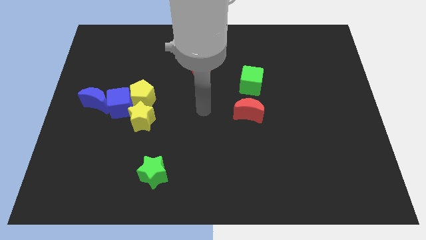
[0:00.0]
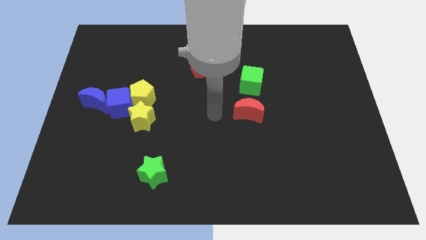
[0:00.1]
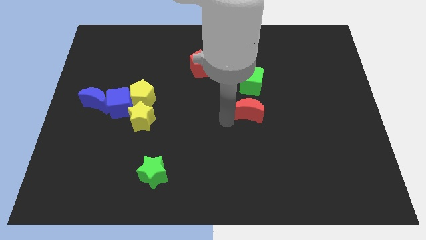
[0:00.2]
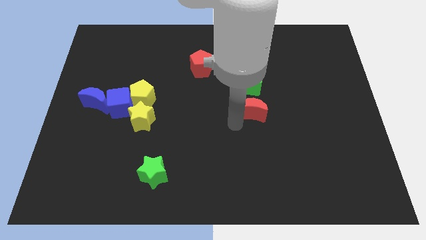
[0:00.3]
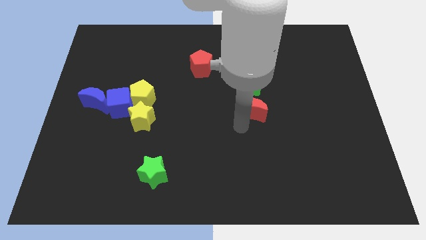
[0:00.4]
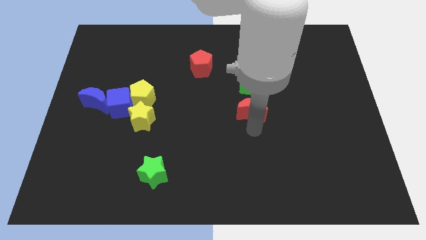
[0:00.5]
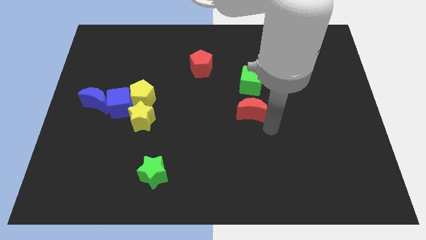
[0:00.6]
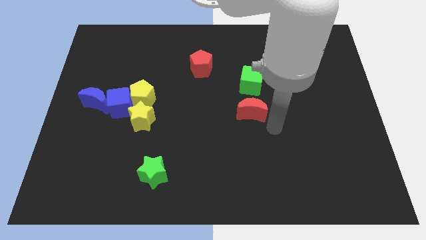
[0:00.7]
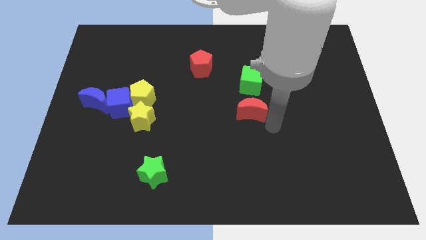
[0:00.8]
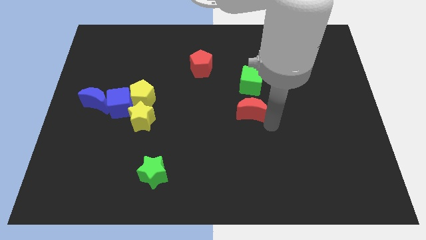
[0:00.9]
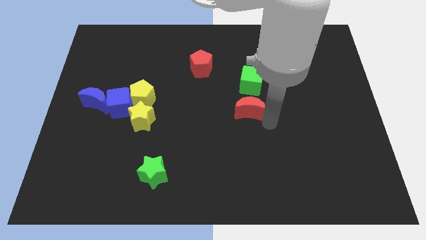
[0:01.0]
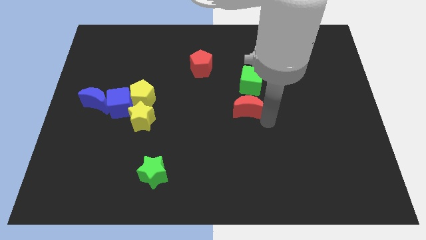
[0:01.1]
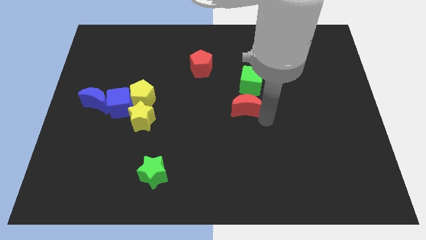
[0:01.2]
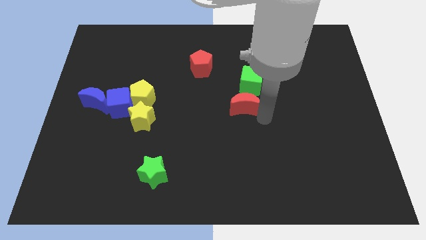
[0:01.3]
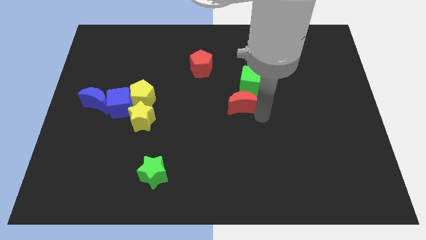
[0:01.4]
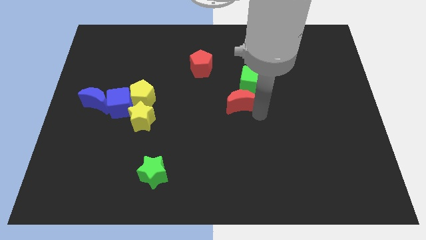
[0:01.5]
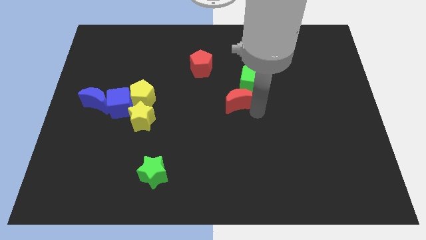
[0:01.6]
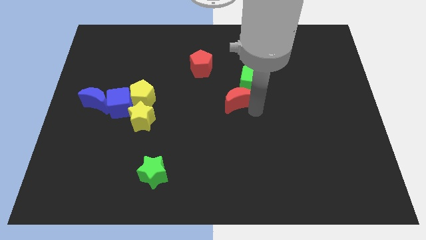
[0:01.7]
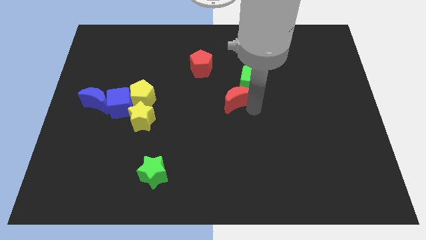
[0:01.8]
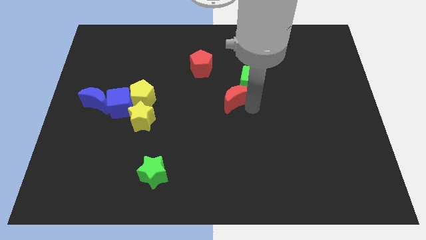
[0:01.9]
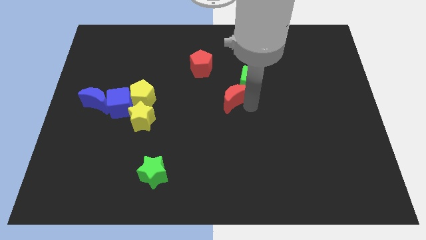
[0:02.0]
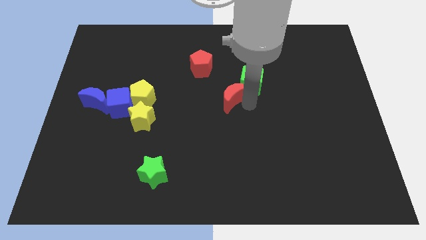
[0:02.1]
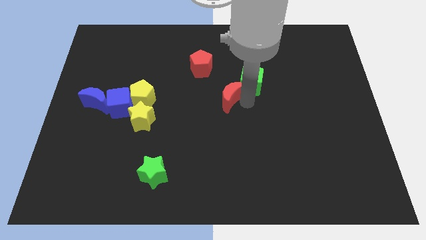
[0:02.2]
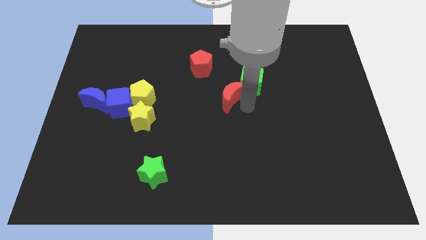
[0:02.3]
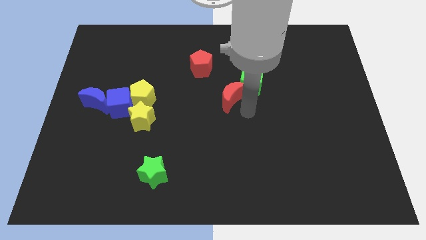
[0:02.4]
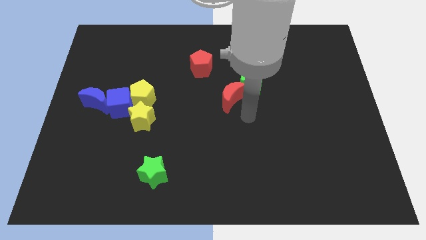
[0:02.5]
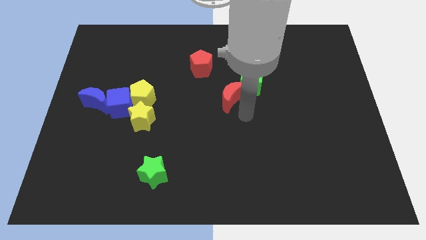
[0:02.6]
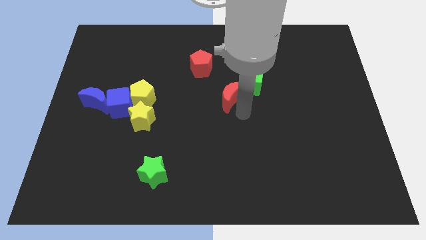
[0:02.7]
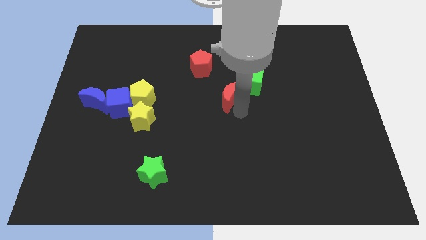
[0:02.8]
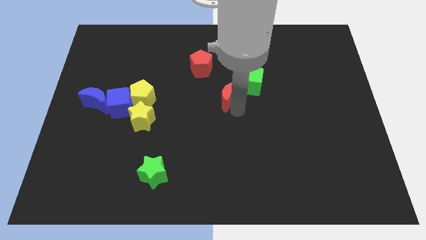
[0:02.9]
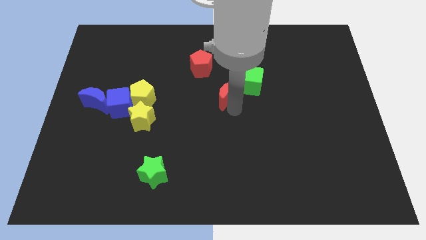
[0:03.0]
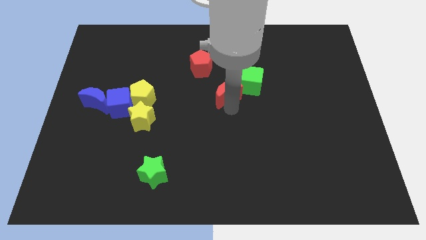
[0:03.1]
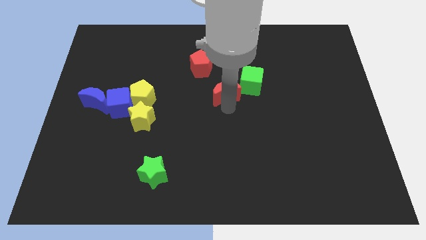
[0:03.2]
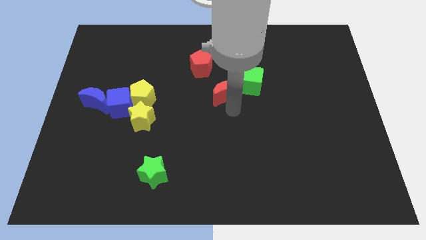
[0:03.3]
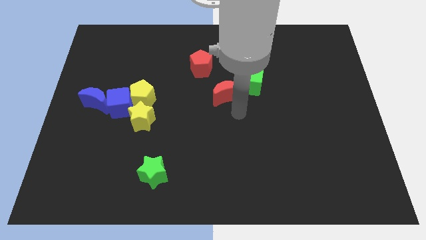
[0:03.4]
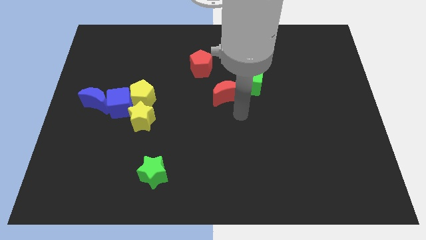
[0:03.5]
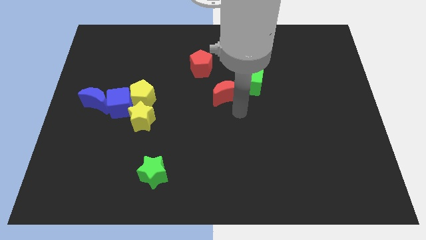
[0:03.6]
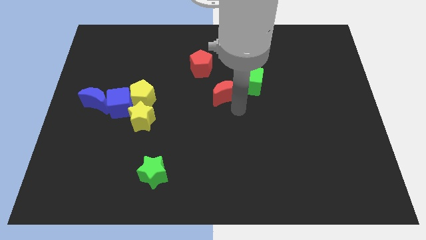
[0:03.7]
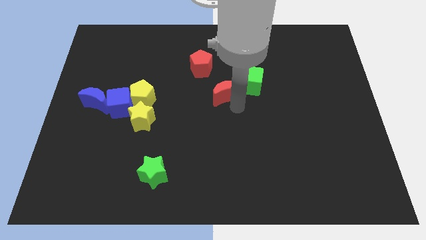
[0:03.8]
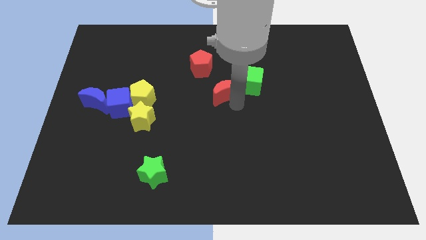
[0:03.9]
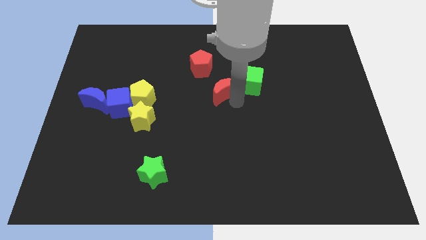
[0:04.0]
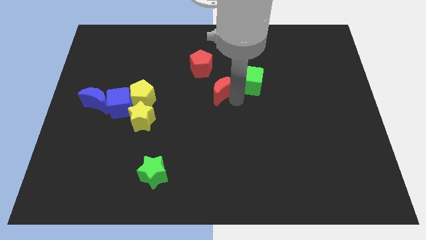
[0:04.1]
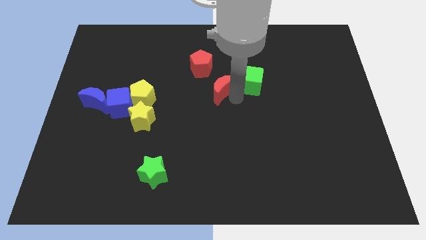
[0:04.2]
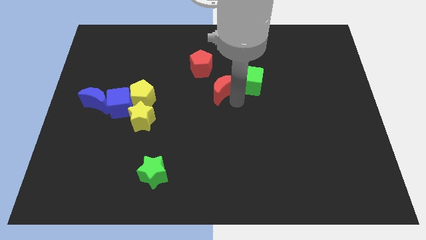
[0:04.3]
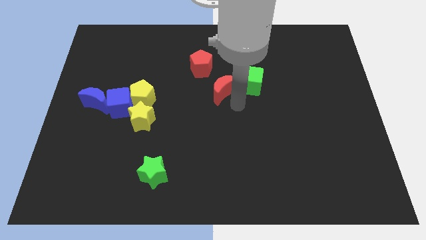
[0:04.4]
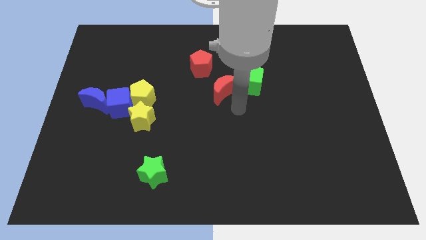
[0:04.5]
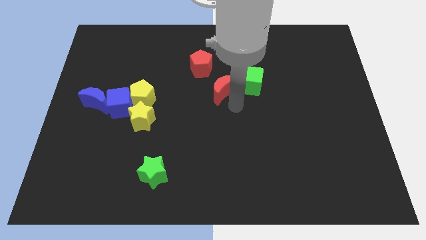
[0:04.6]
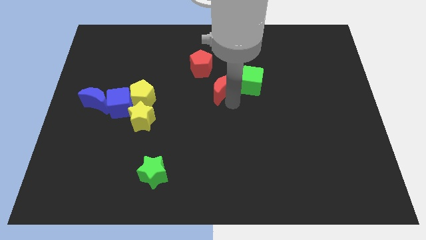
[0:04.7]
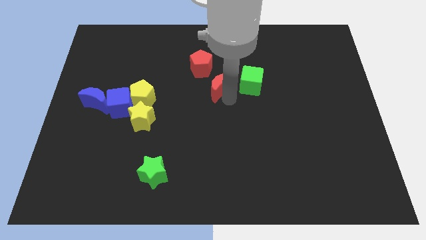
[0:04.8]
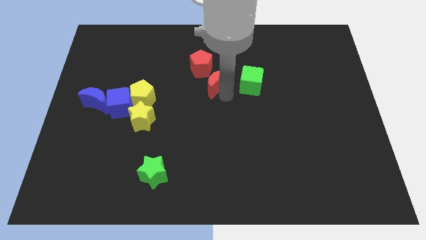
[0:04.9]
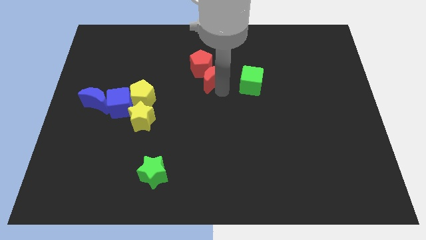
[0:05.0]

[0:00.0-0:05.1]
push the red moon to the red pentagon

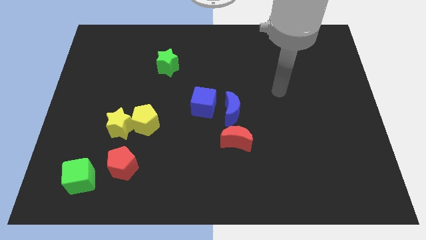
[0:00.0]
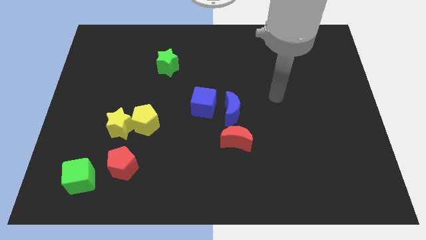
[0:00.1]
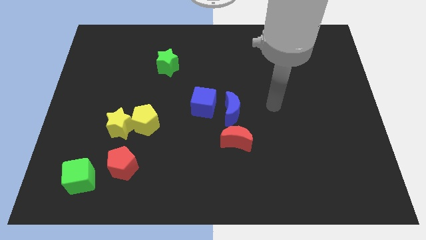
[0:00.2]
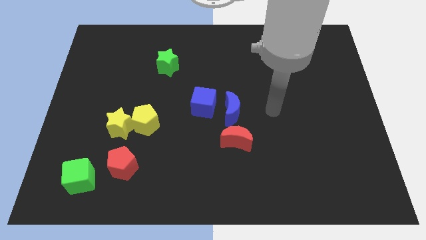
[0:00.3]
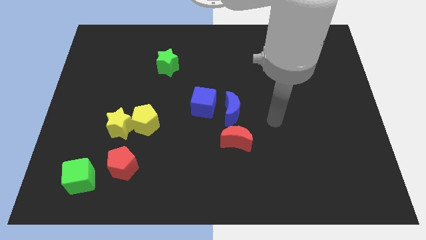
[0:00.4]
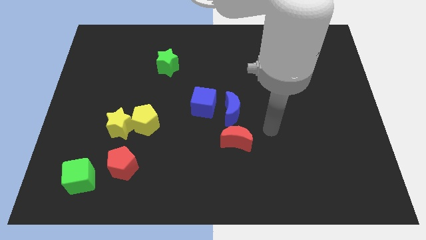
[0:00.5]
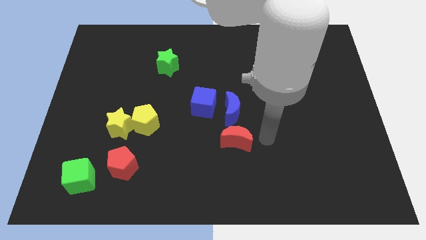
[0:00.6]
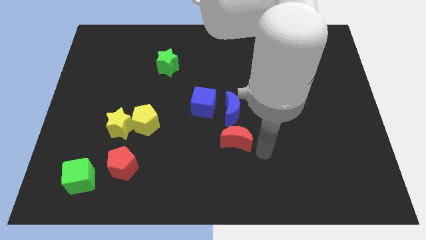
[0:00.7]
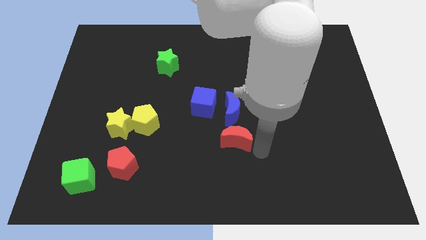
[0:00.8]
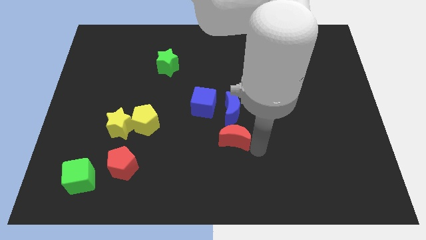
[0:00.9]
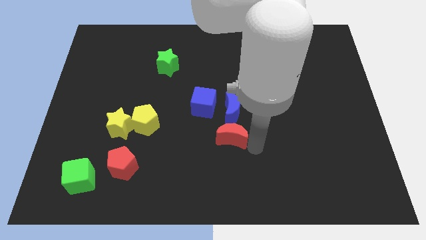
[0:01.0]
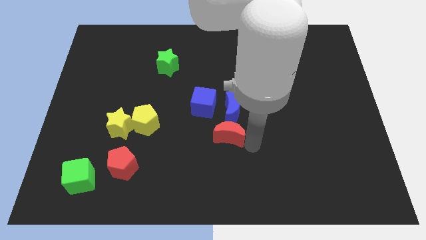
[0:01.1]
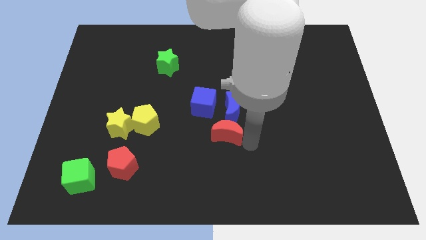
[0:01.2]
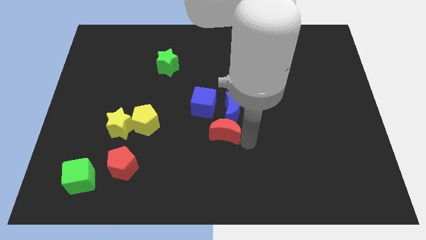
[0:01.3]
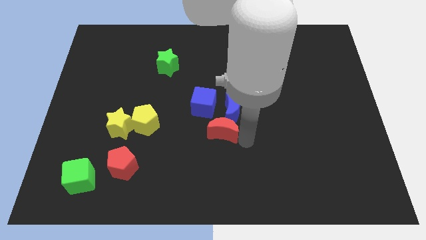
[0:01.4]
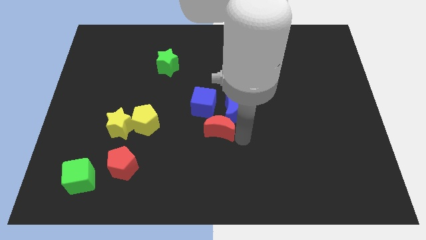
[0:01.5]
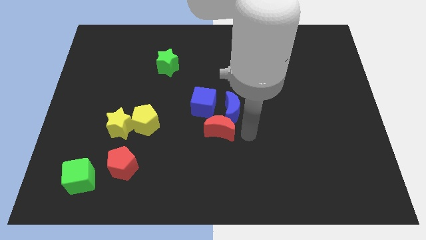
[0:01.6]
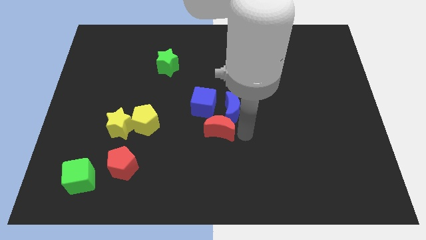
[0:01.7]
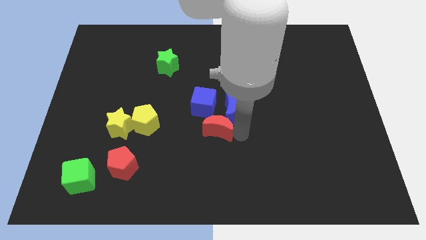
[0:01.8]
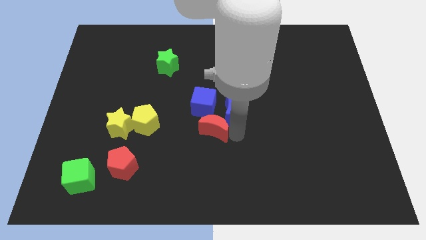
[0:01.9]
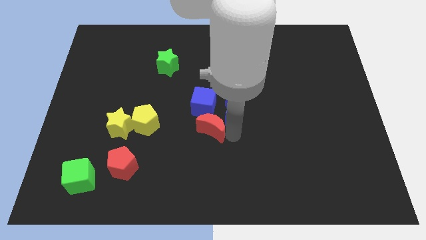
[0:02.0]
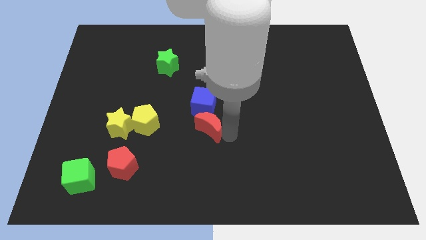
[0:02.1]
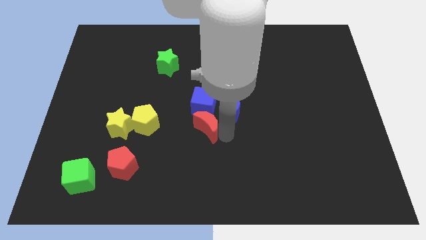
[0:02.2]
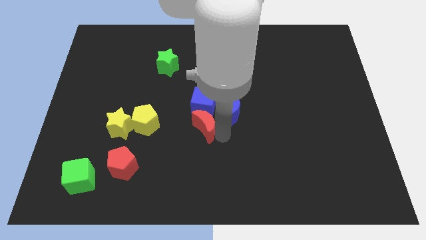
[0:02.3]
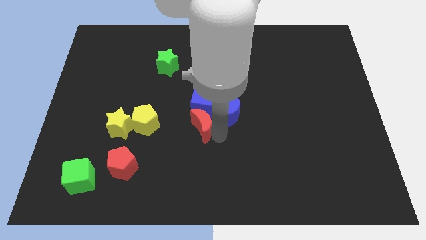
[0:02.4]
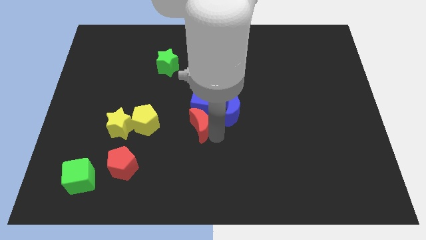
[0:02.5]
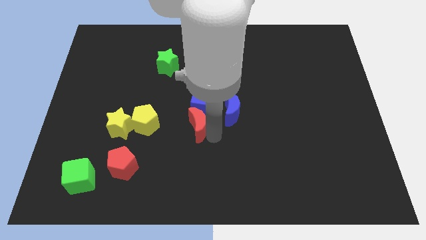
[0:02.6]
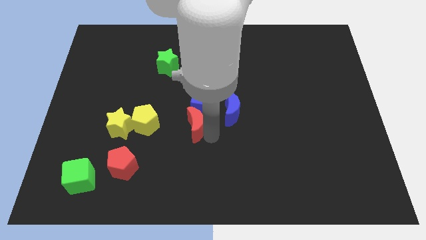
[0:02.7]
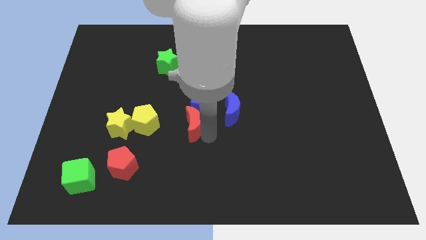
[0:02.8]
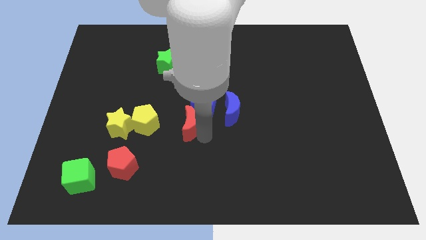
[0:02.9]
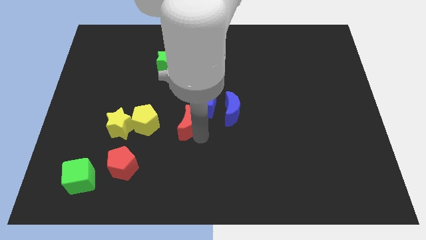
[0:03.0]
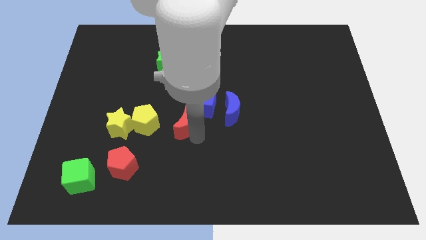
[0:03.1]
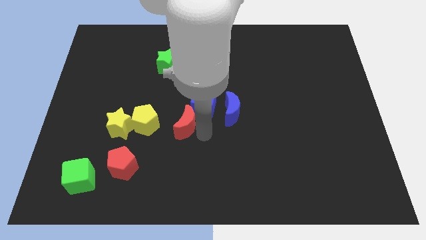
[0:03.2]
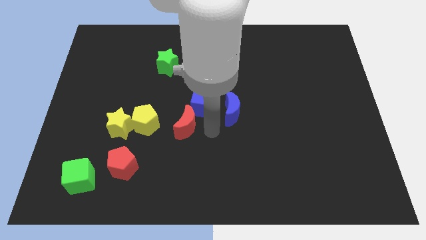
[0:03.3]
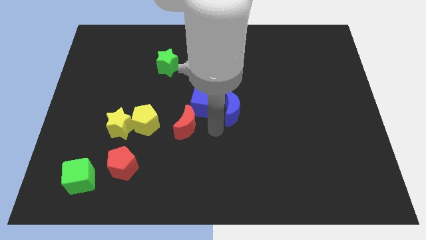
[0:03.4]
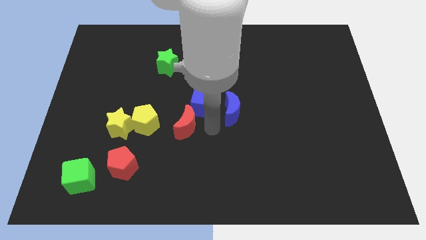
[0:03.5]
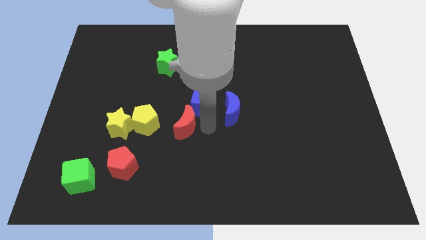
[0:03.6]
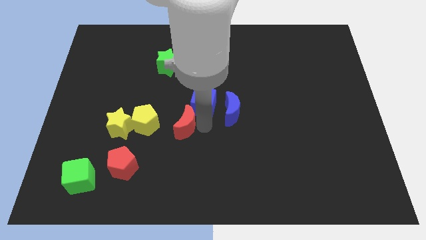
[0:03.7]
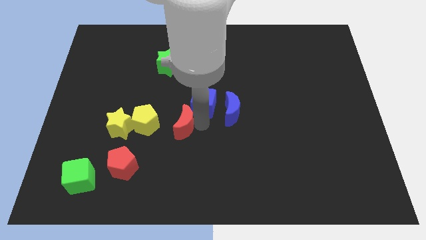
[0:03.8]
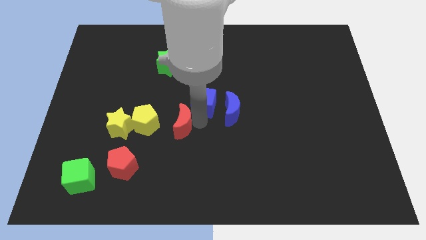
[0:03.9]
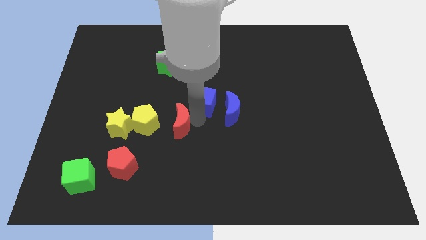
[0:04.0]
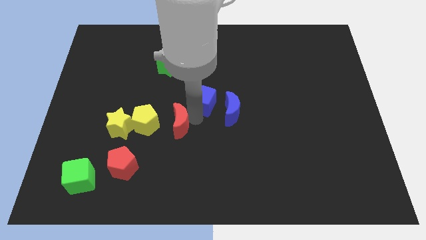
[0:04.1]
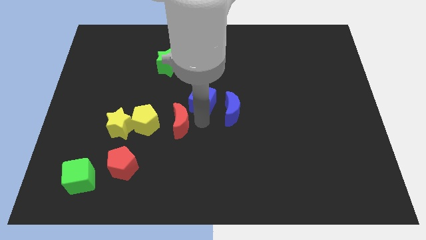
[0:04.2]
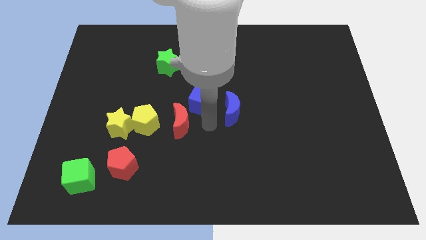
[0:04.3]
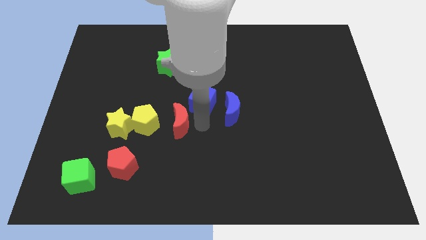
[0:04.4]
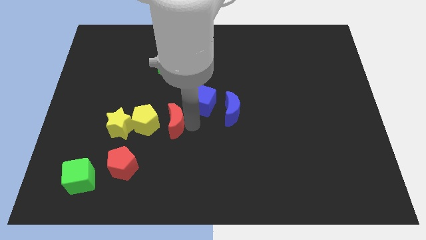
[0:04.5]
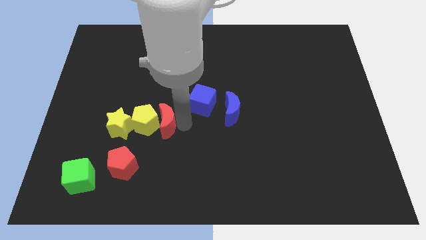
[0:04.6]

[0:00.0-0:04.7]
push the red moon close to the yellow pentagon
